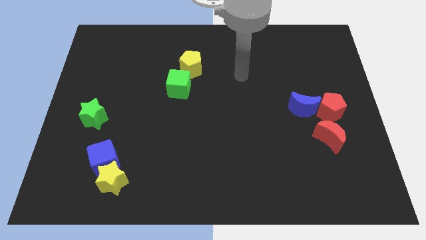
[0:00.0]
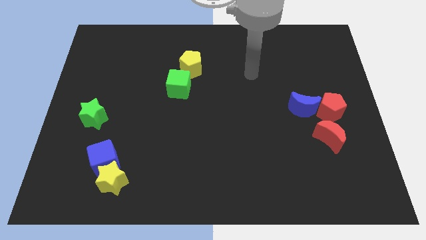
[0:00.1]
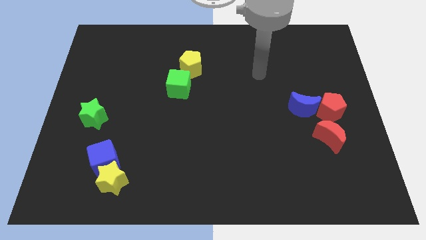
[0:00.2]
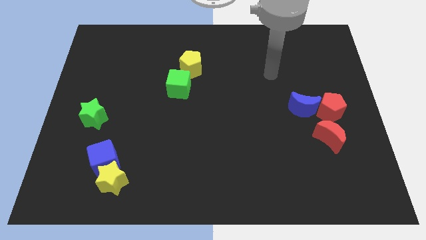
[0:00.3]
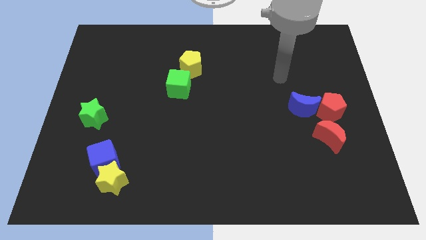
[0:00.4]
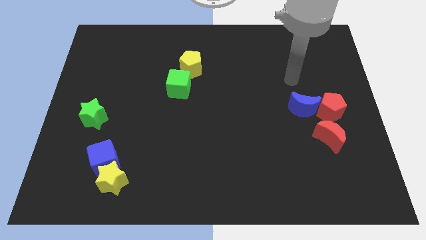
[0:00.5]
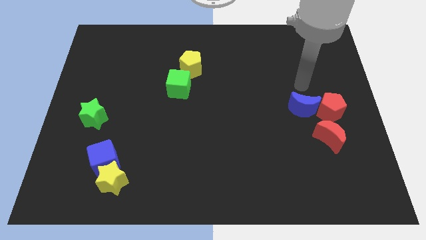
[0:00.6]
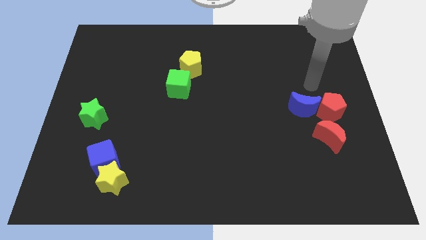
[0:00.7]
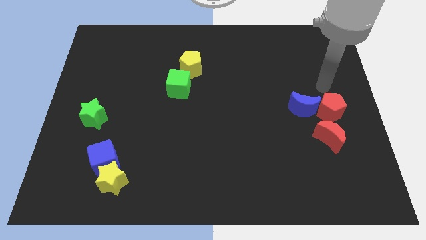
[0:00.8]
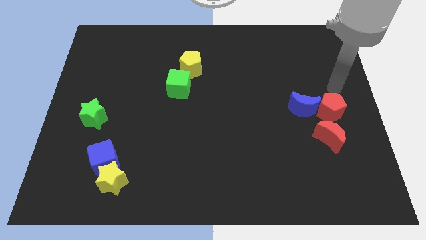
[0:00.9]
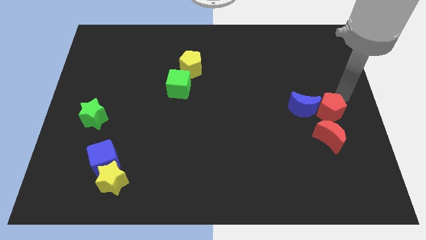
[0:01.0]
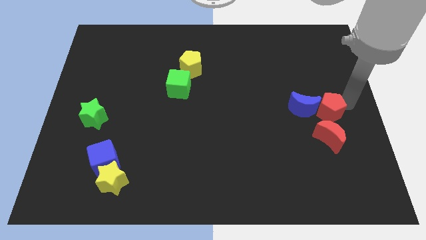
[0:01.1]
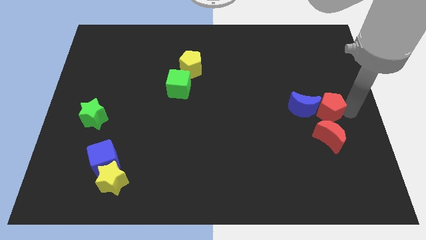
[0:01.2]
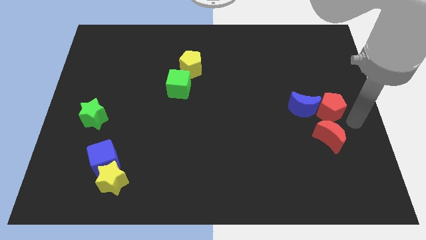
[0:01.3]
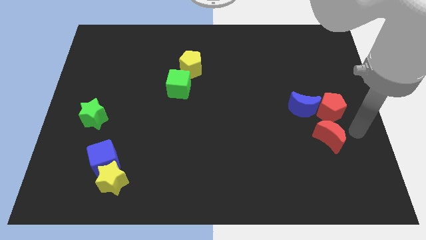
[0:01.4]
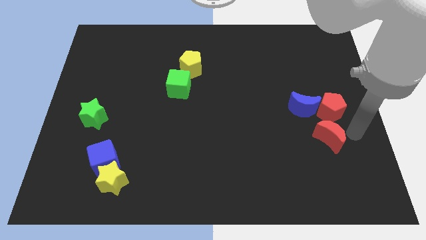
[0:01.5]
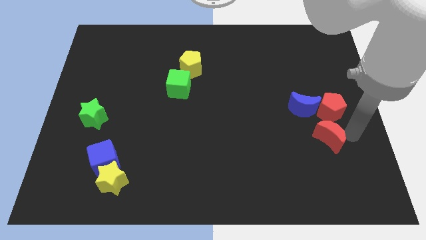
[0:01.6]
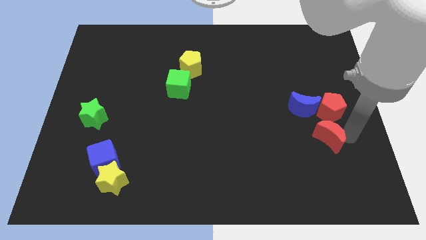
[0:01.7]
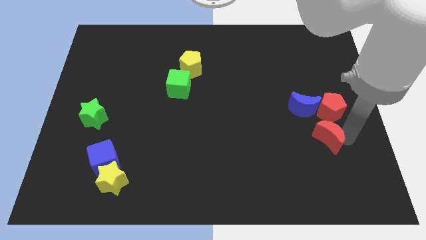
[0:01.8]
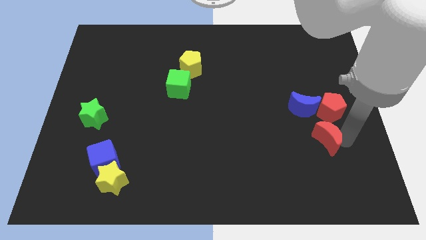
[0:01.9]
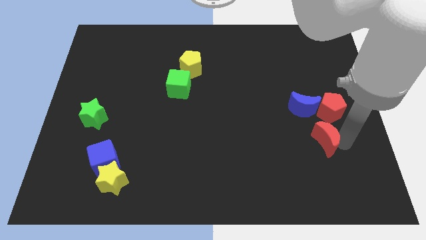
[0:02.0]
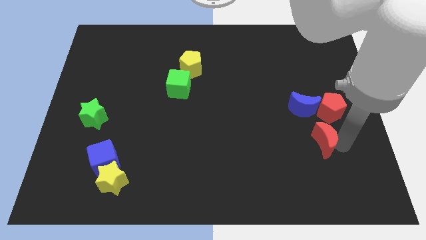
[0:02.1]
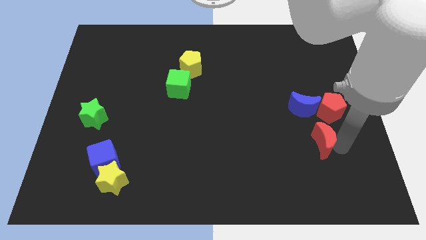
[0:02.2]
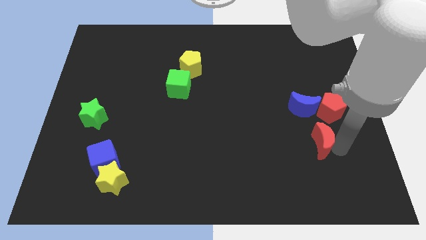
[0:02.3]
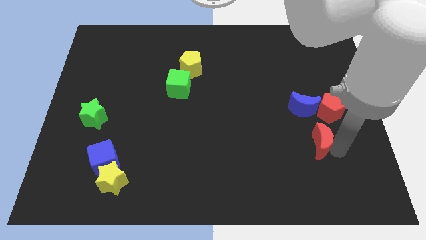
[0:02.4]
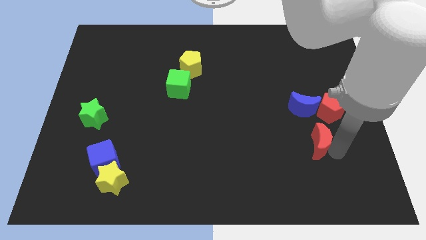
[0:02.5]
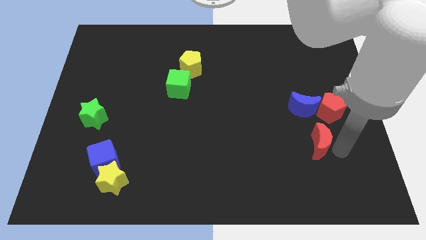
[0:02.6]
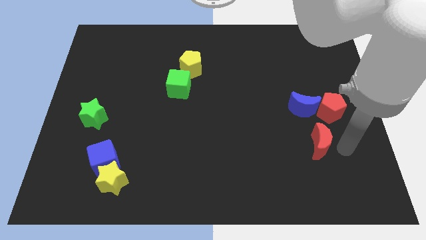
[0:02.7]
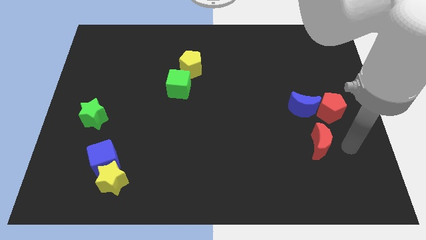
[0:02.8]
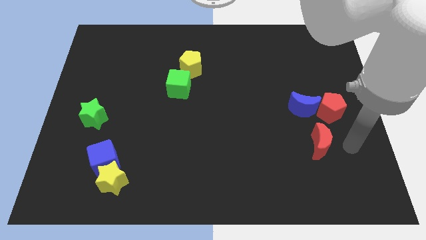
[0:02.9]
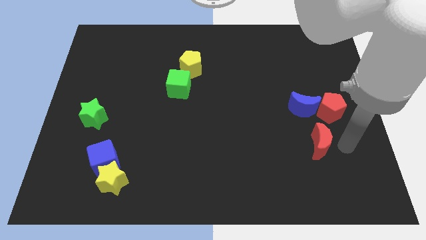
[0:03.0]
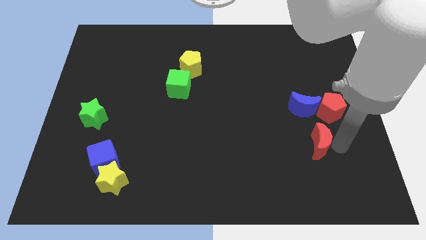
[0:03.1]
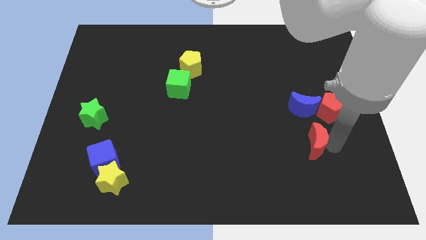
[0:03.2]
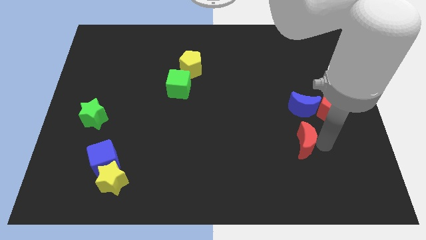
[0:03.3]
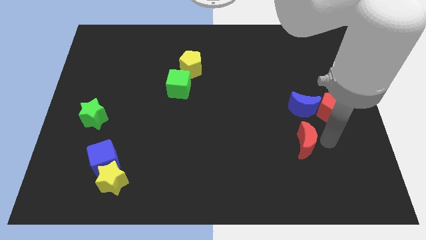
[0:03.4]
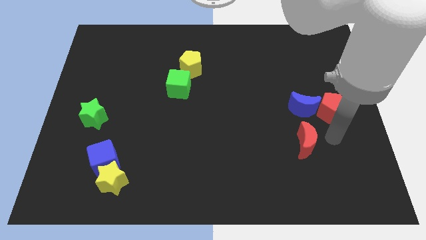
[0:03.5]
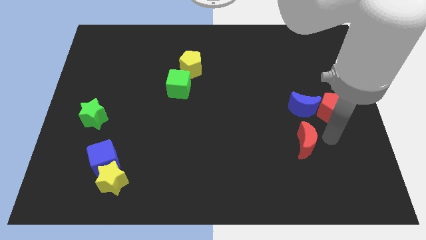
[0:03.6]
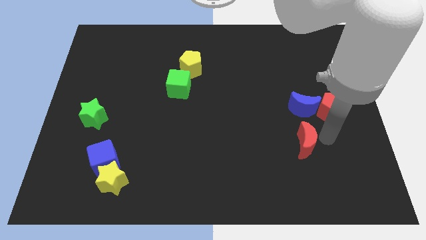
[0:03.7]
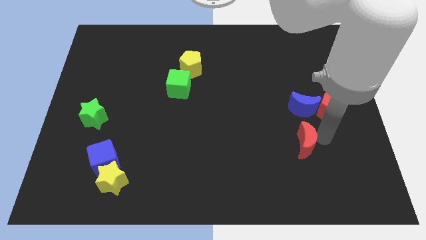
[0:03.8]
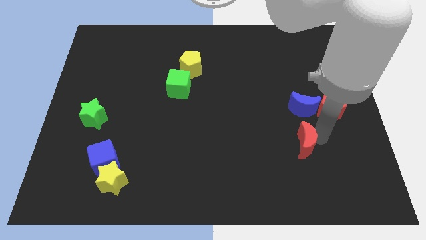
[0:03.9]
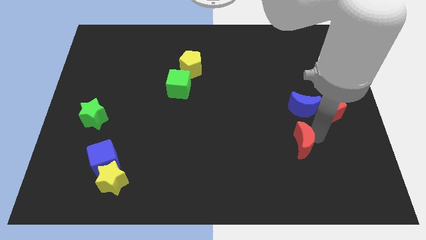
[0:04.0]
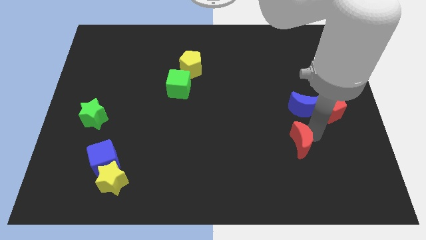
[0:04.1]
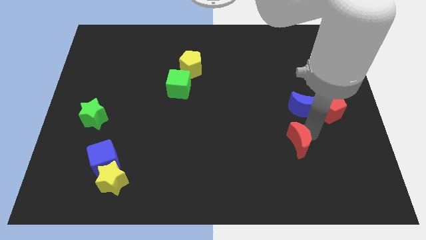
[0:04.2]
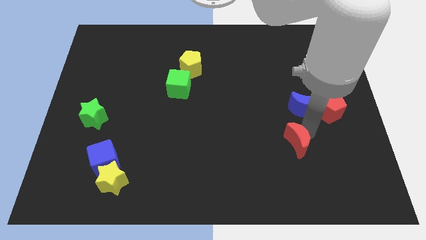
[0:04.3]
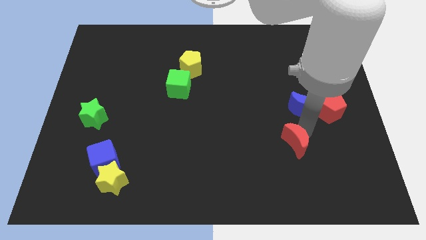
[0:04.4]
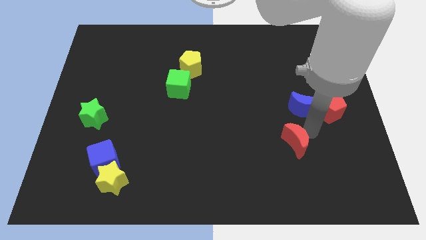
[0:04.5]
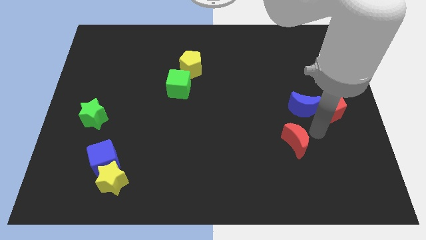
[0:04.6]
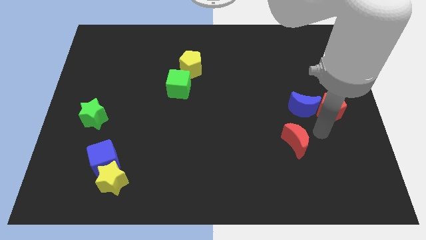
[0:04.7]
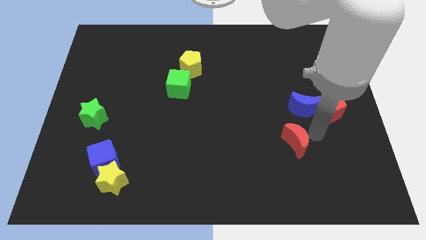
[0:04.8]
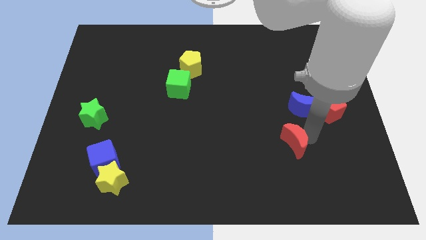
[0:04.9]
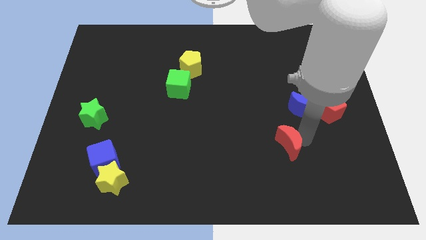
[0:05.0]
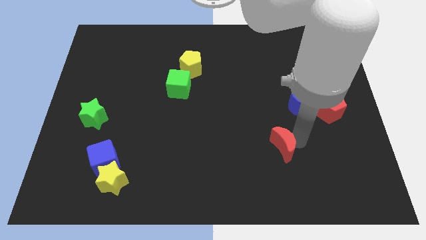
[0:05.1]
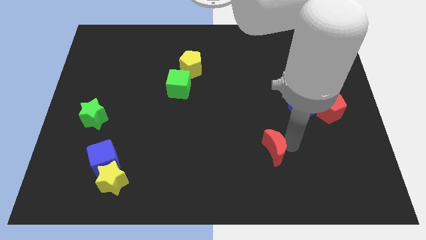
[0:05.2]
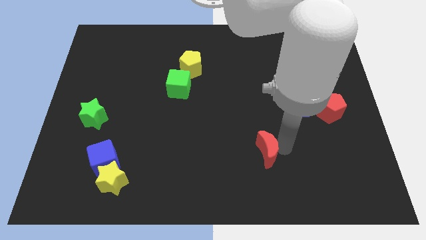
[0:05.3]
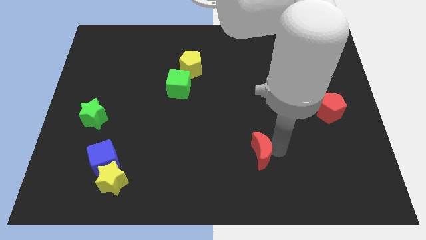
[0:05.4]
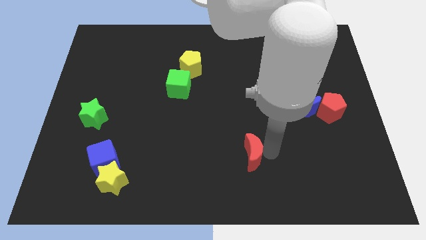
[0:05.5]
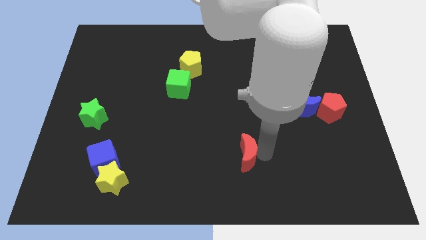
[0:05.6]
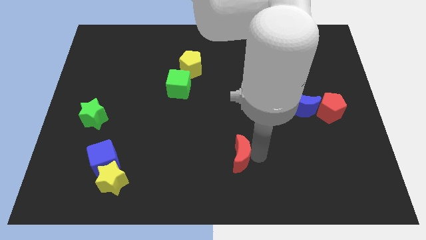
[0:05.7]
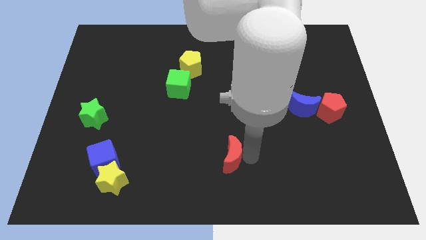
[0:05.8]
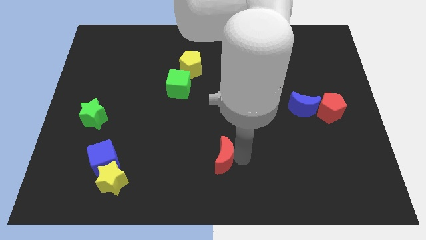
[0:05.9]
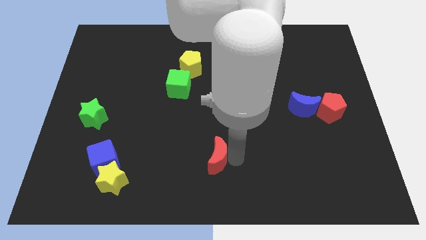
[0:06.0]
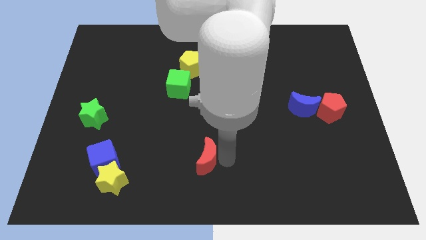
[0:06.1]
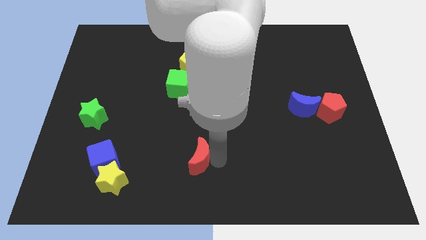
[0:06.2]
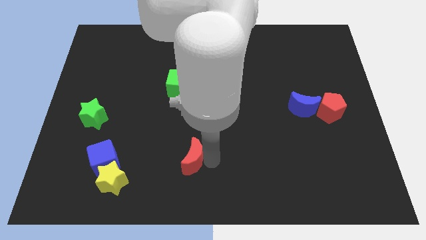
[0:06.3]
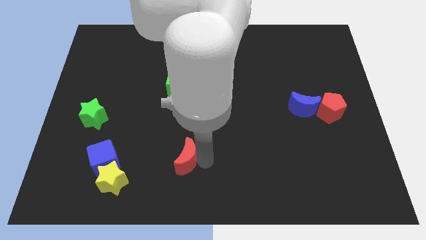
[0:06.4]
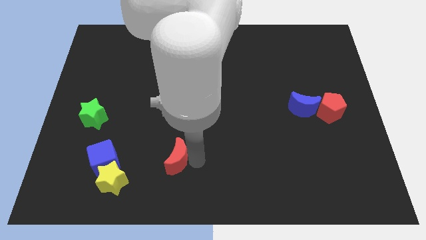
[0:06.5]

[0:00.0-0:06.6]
put the red moon right of the blue cube
